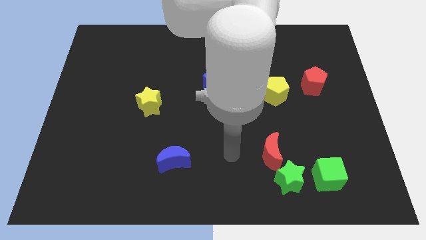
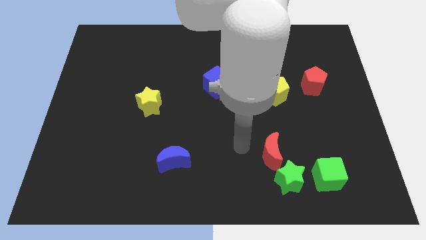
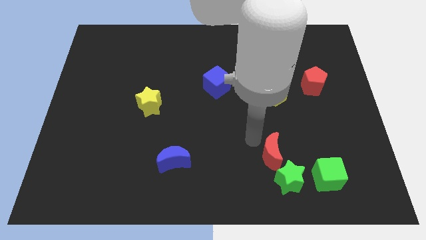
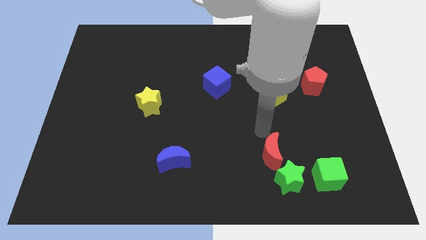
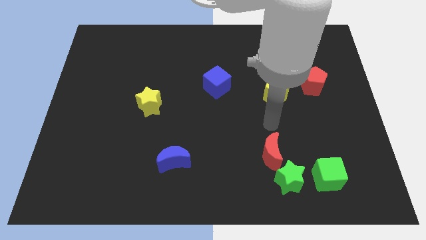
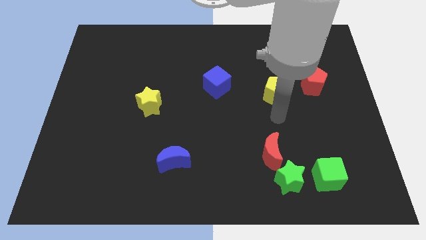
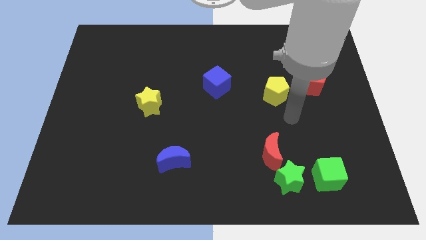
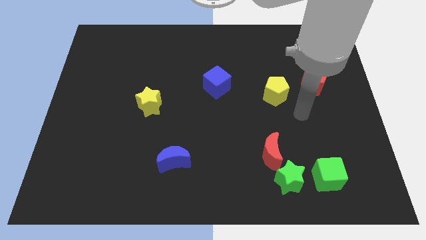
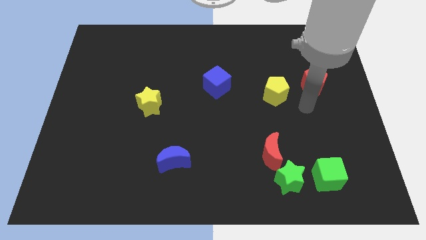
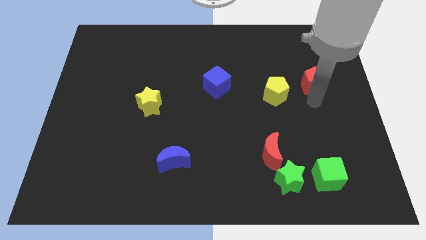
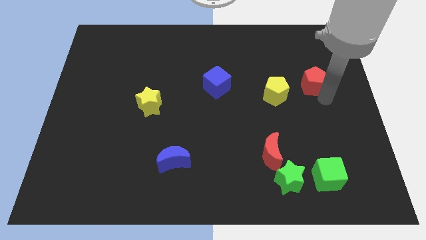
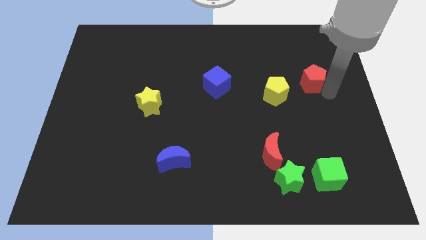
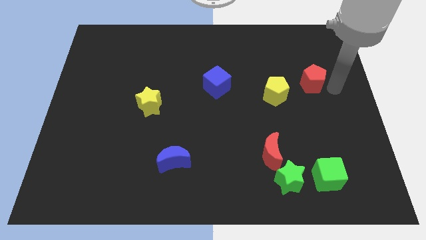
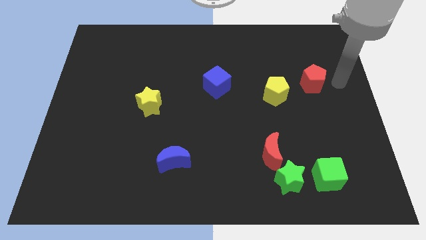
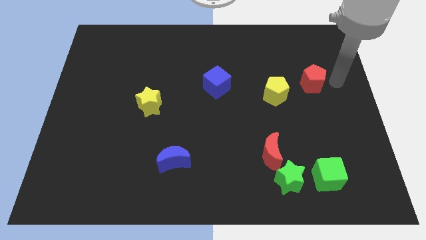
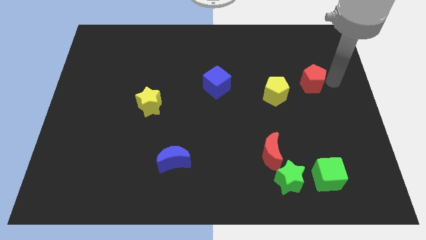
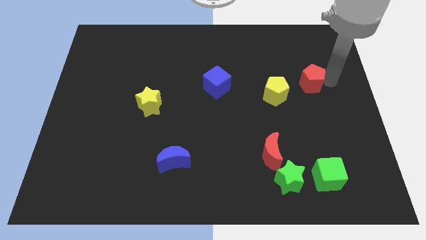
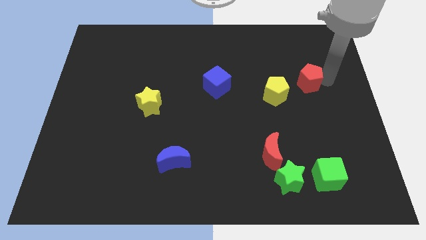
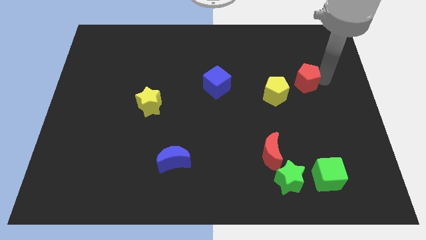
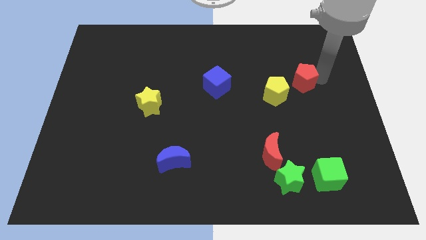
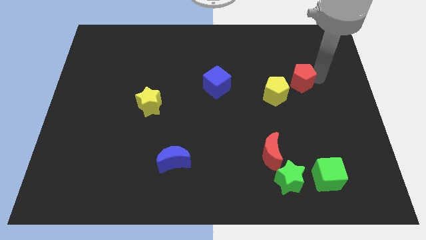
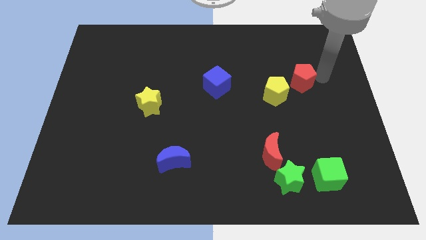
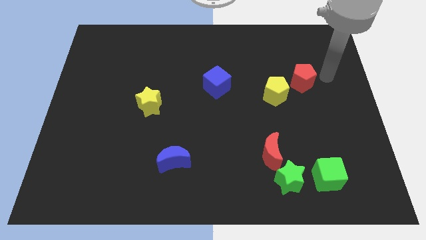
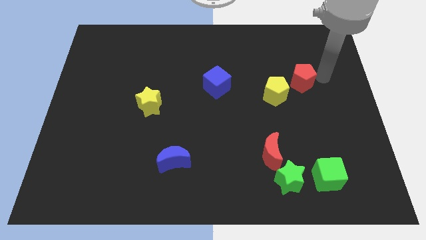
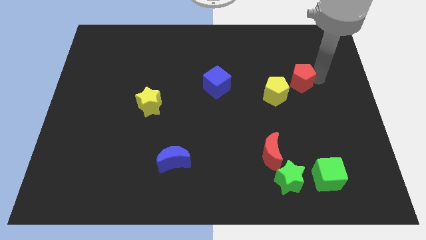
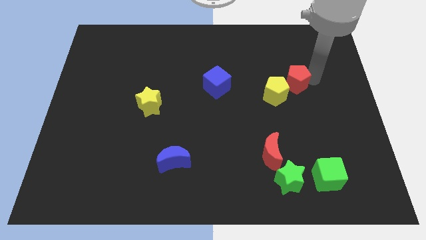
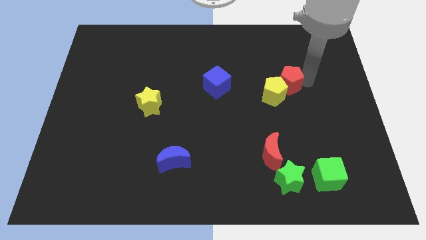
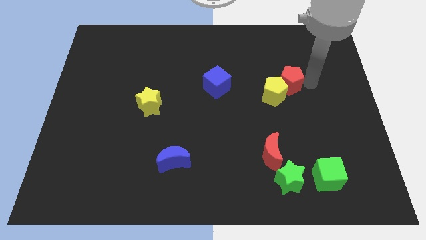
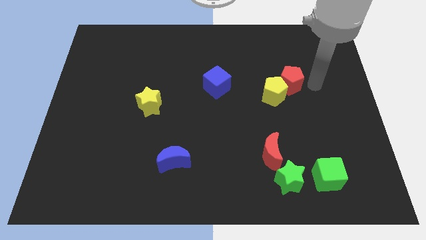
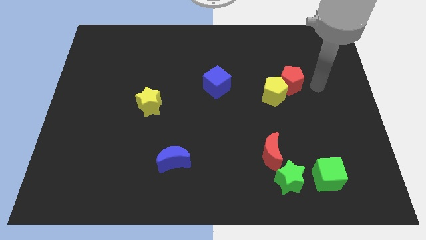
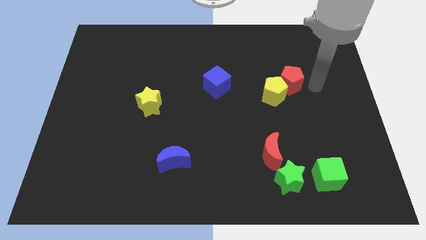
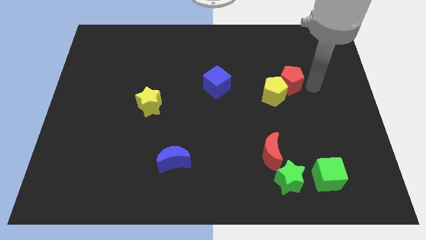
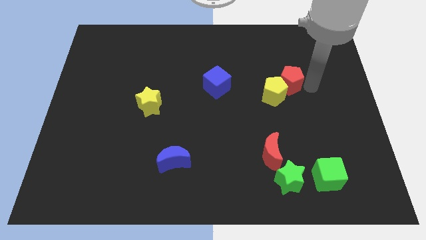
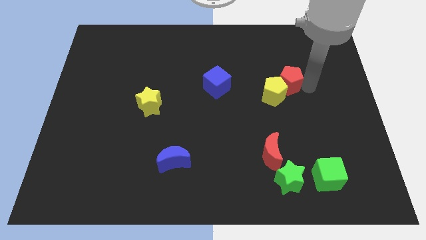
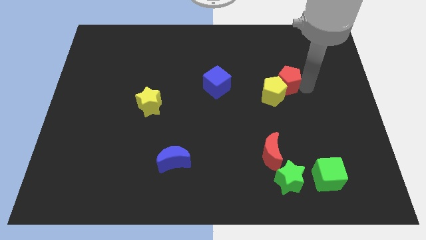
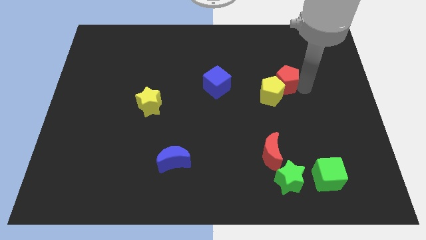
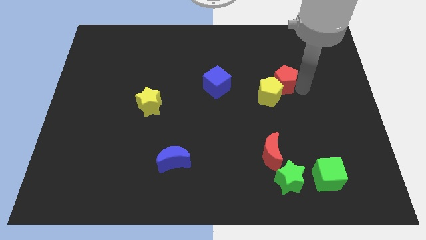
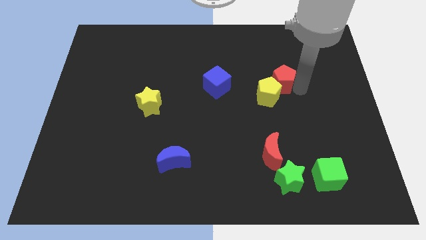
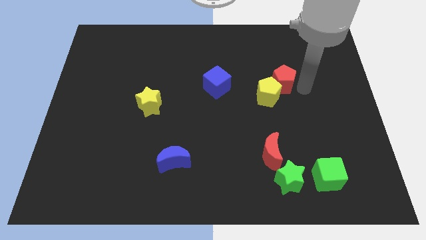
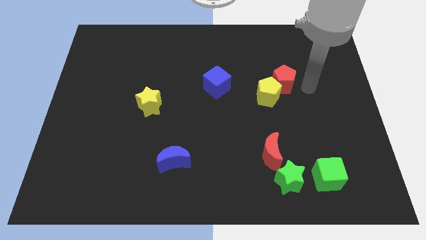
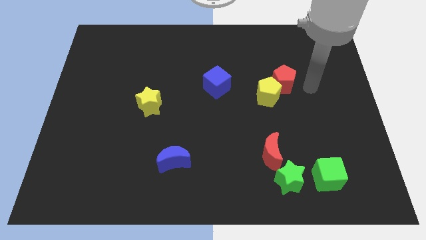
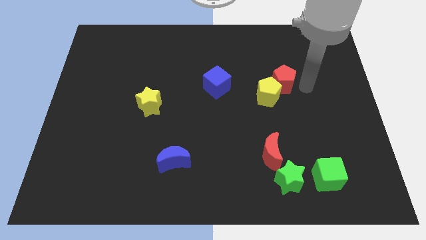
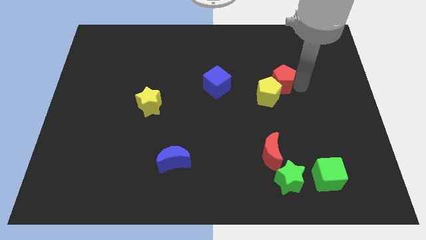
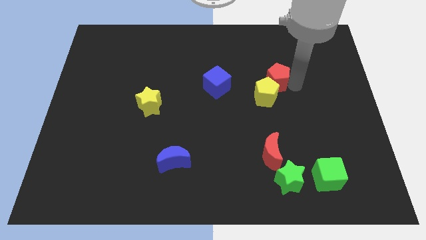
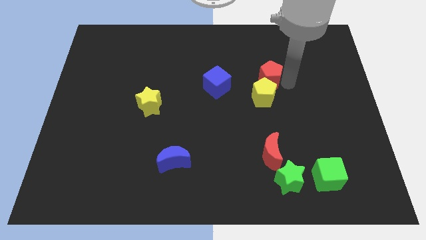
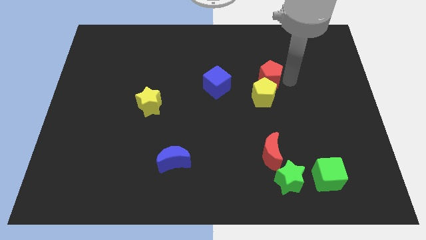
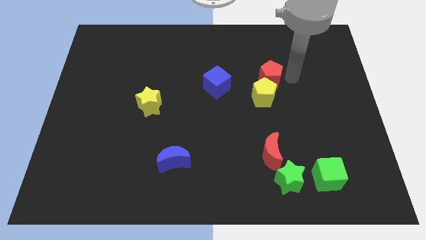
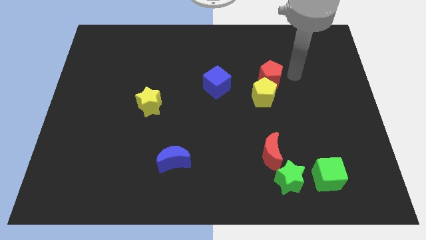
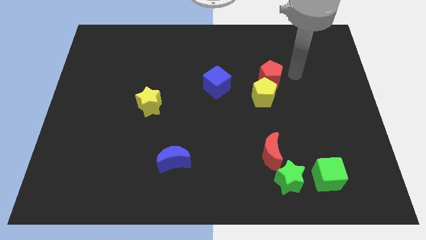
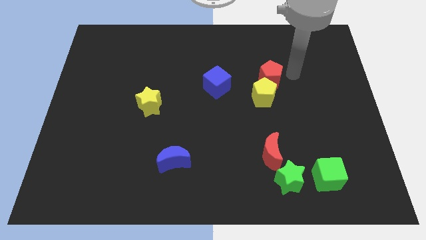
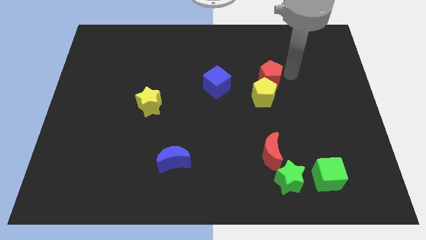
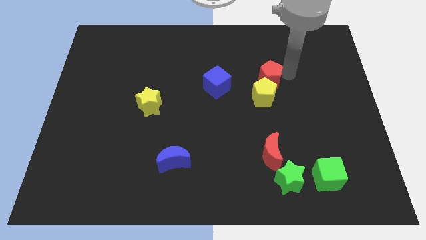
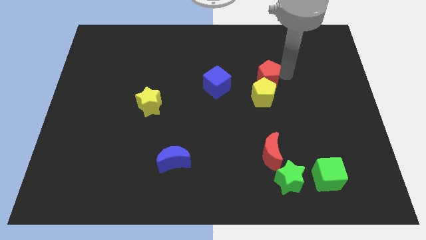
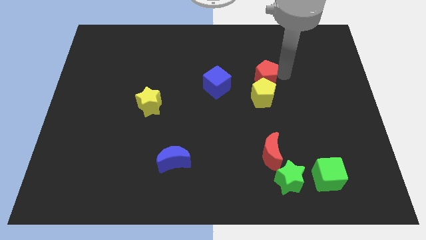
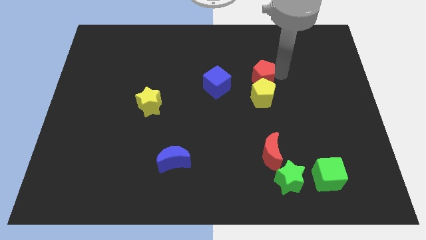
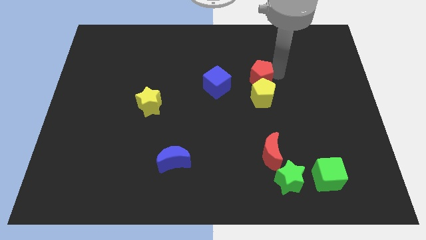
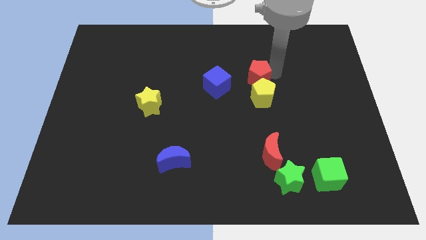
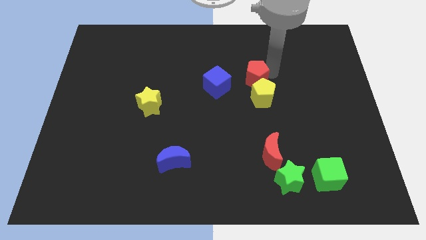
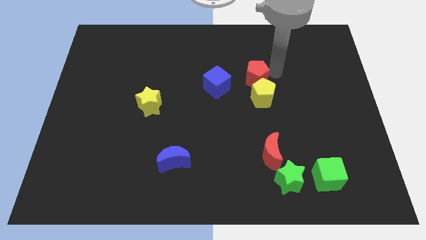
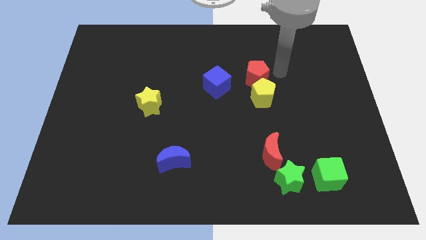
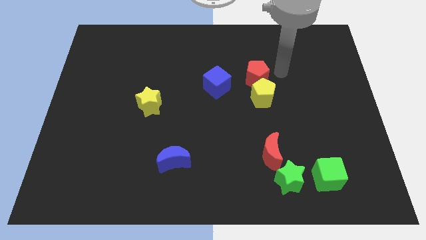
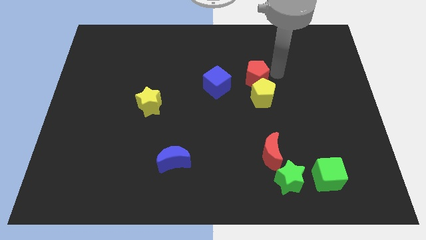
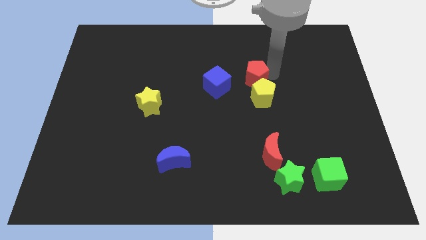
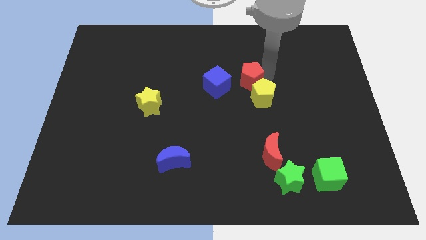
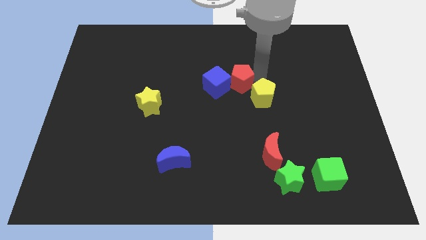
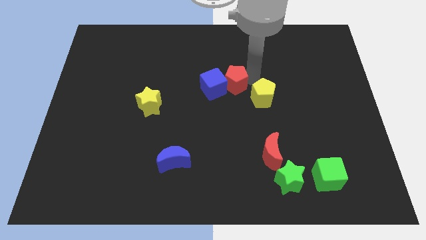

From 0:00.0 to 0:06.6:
move the red pentagon to the blue cube

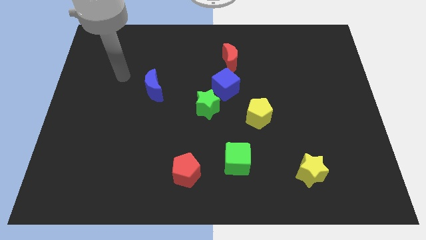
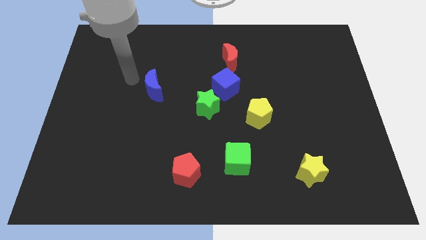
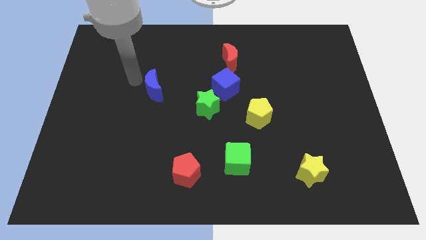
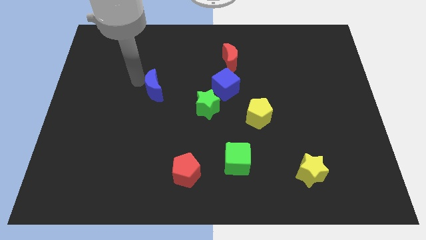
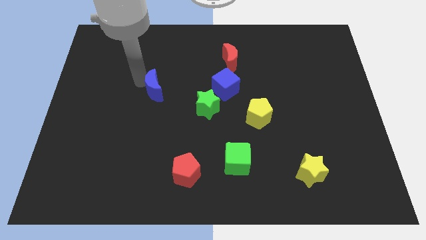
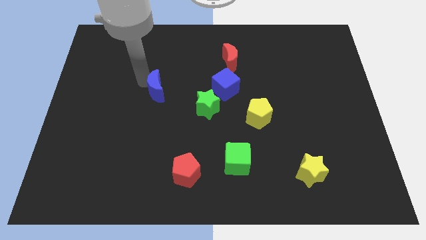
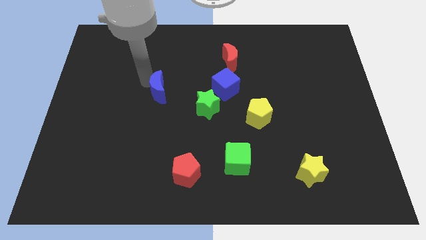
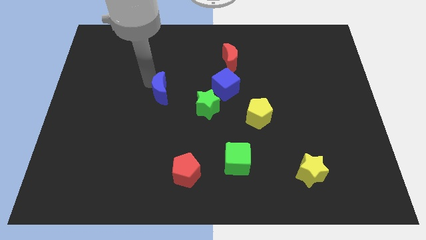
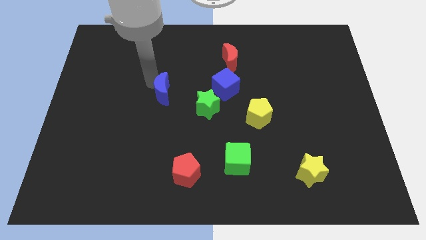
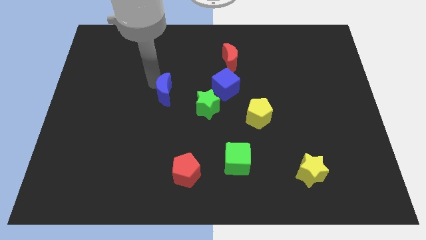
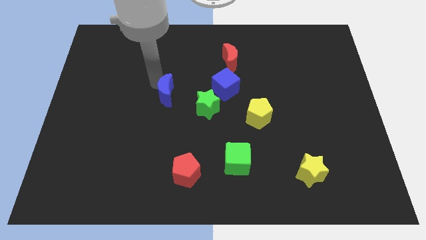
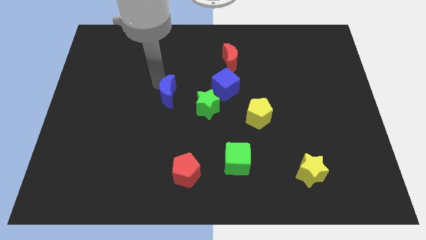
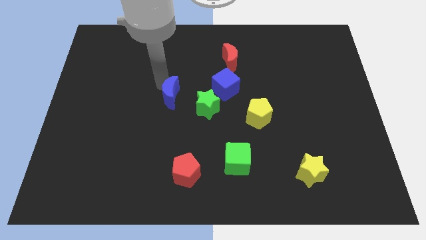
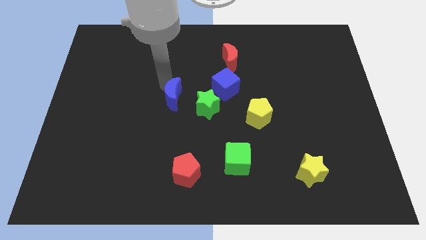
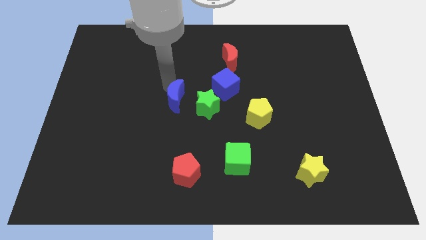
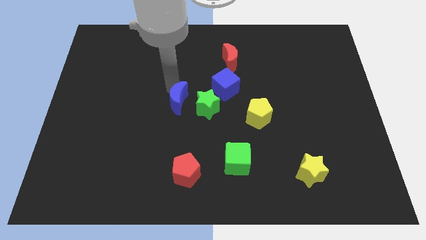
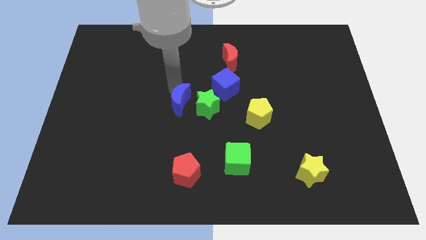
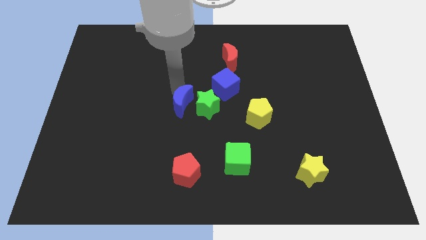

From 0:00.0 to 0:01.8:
put the blue moon close to the green star
